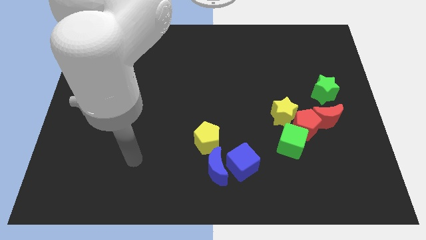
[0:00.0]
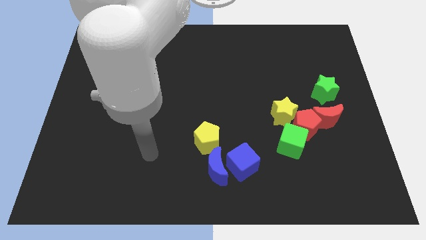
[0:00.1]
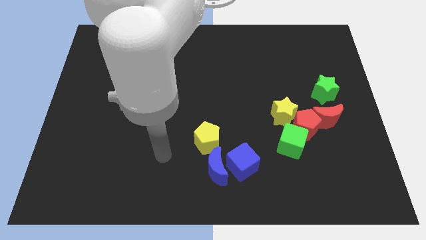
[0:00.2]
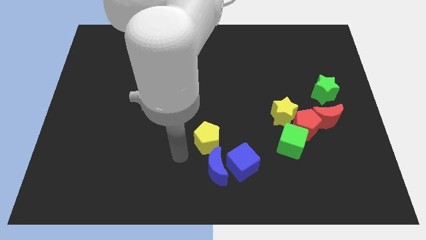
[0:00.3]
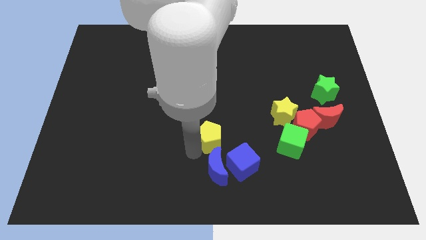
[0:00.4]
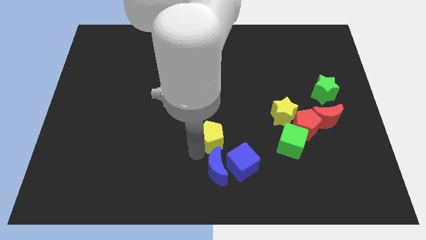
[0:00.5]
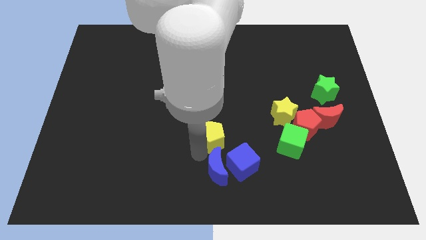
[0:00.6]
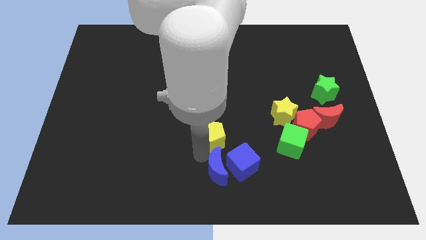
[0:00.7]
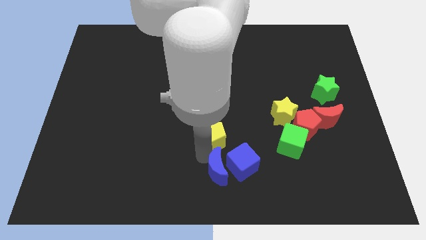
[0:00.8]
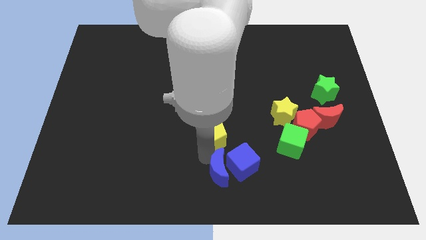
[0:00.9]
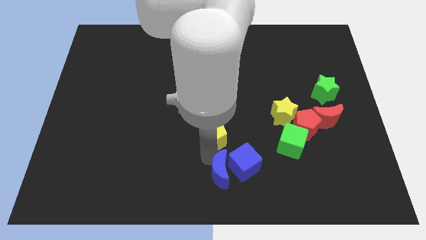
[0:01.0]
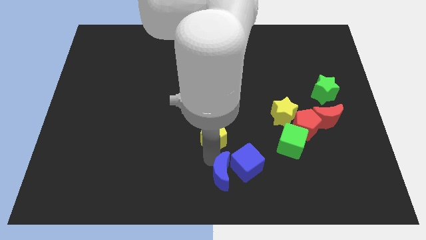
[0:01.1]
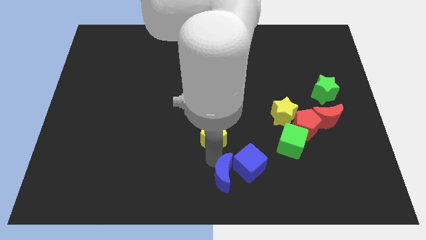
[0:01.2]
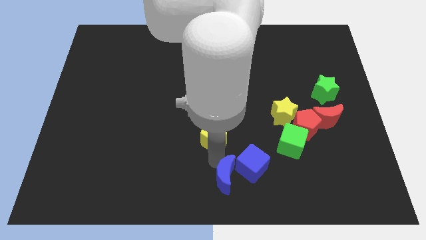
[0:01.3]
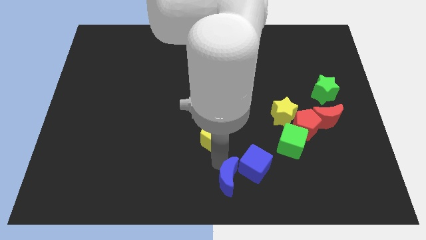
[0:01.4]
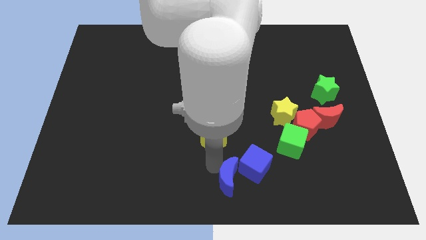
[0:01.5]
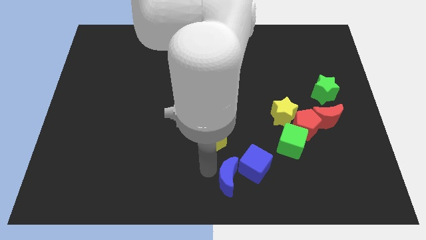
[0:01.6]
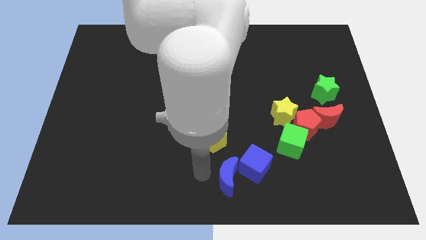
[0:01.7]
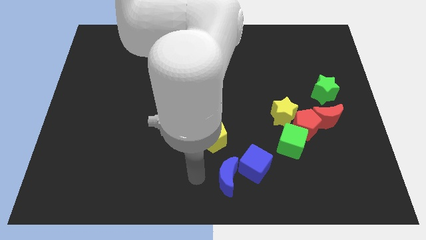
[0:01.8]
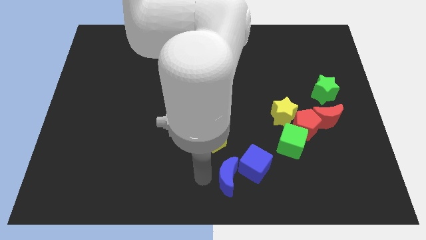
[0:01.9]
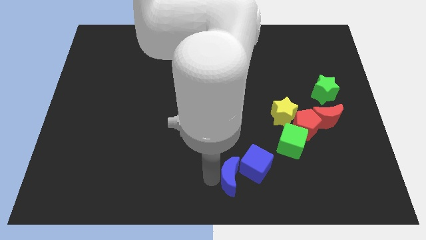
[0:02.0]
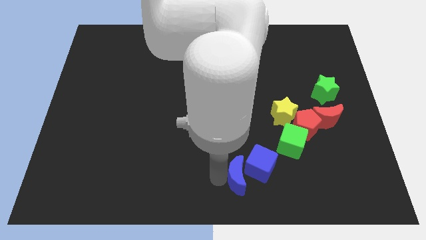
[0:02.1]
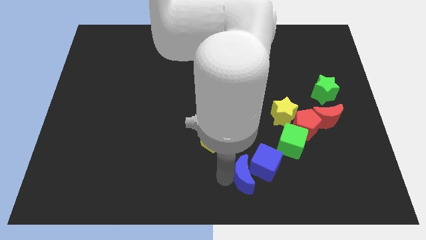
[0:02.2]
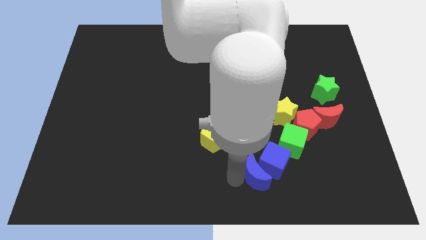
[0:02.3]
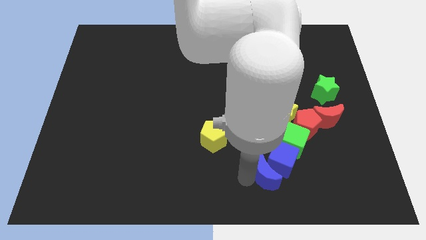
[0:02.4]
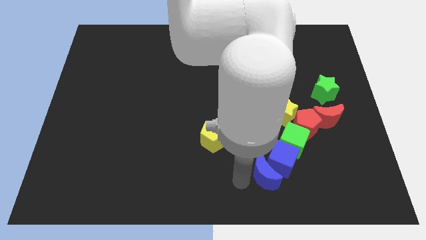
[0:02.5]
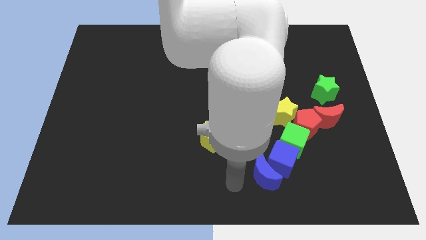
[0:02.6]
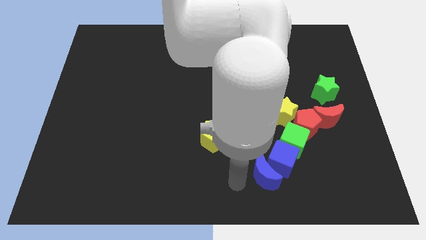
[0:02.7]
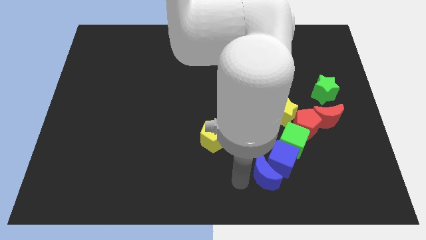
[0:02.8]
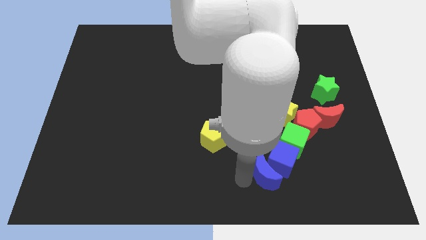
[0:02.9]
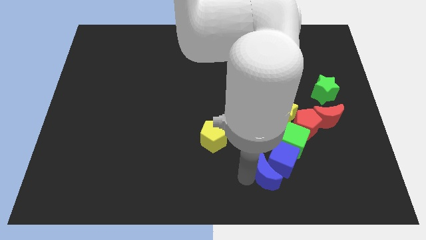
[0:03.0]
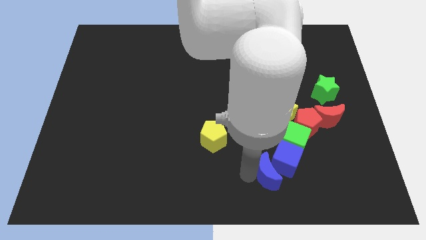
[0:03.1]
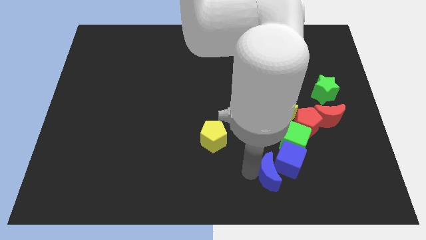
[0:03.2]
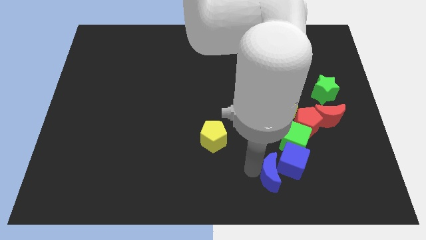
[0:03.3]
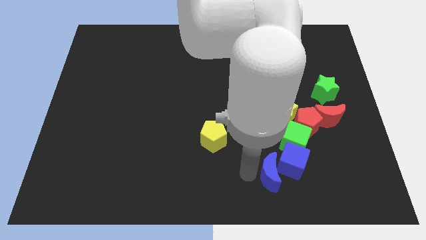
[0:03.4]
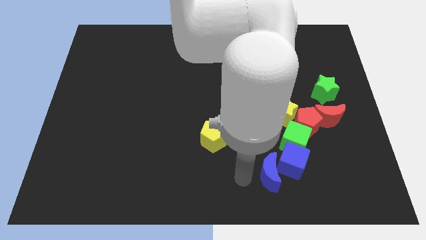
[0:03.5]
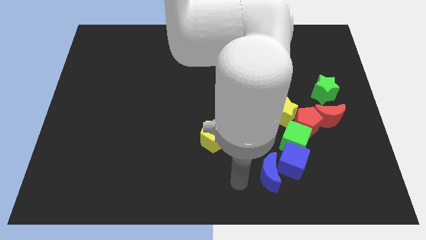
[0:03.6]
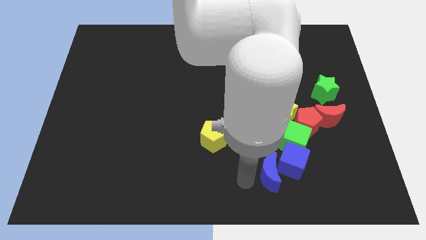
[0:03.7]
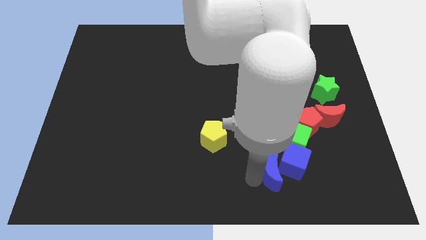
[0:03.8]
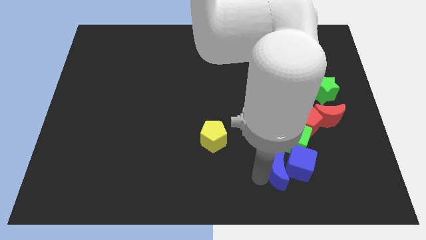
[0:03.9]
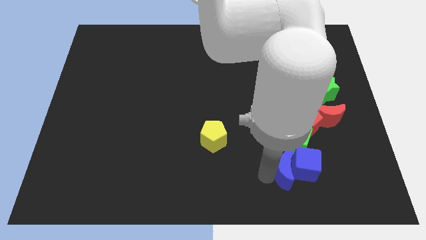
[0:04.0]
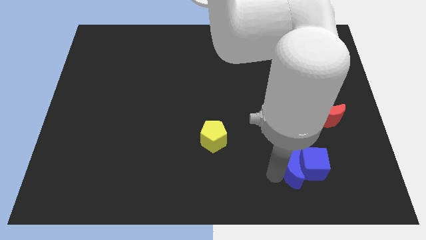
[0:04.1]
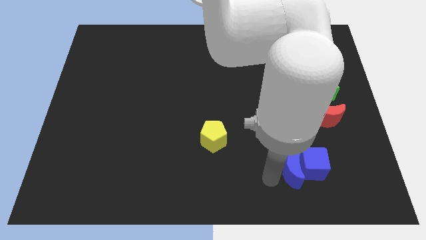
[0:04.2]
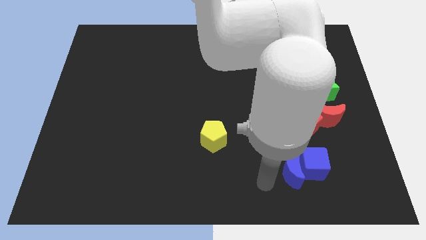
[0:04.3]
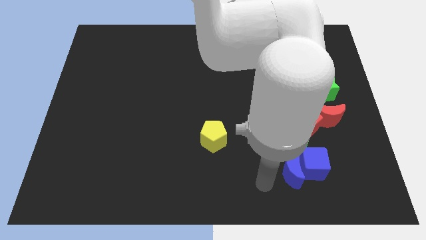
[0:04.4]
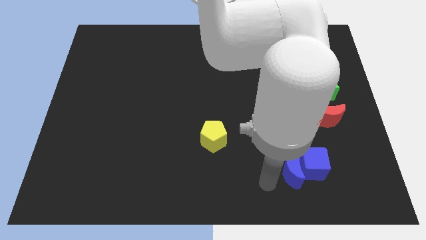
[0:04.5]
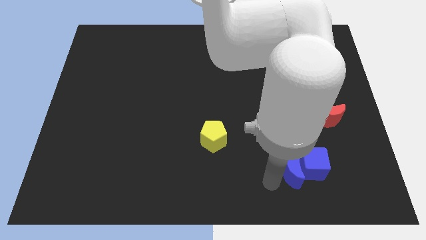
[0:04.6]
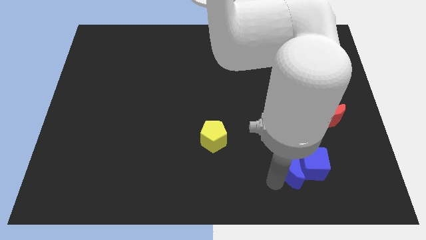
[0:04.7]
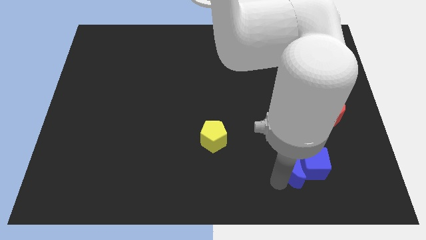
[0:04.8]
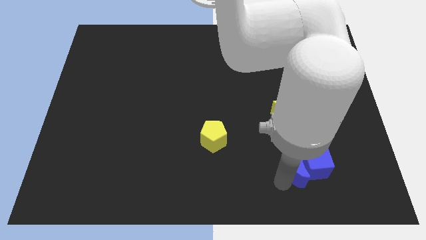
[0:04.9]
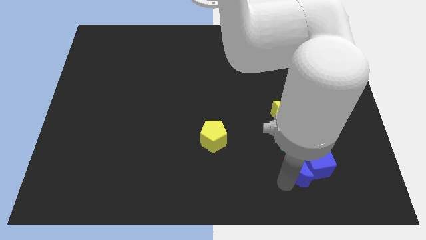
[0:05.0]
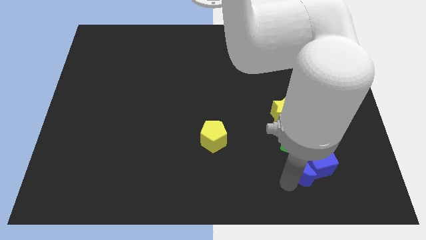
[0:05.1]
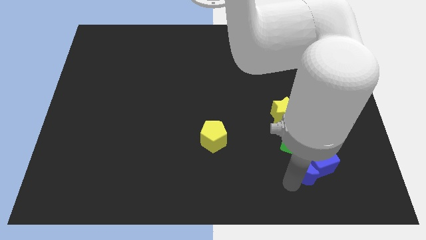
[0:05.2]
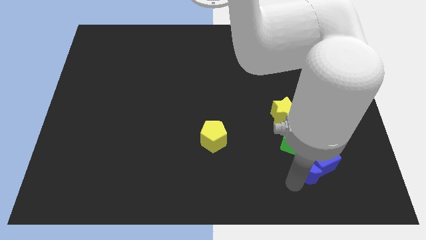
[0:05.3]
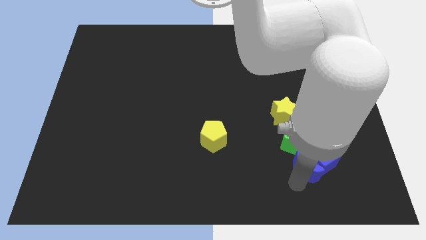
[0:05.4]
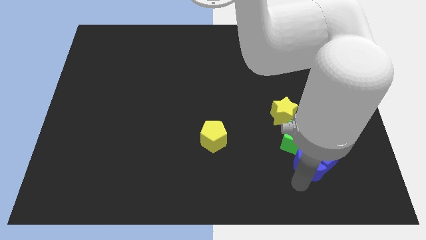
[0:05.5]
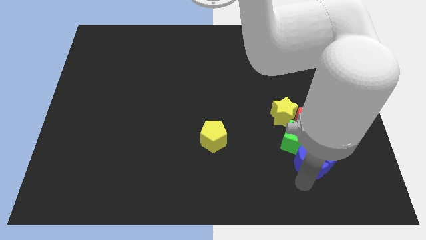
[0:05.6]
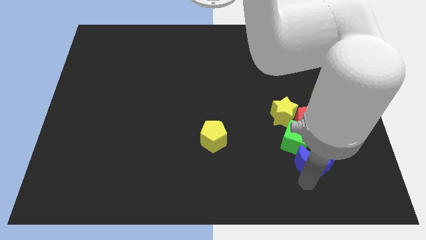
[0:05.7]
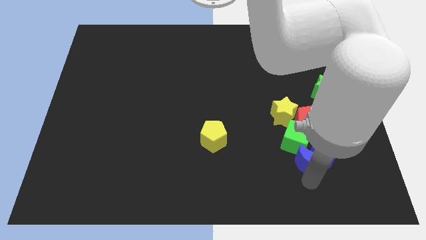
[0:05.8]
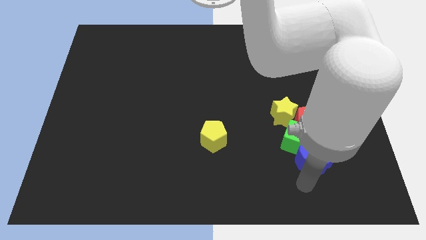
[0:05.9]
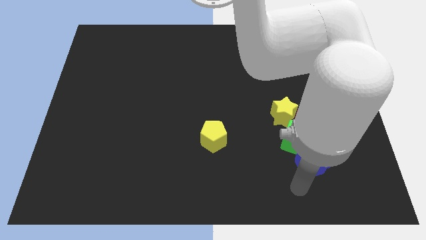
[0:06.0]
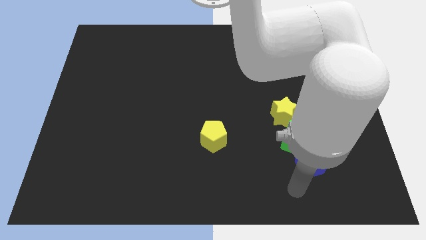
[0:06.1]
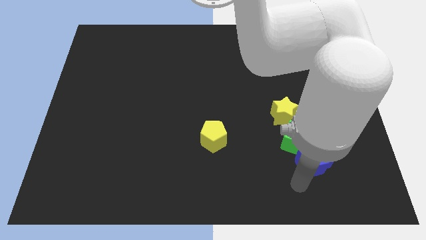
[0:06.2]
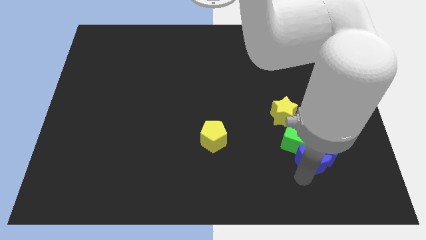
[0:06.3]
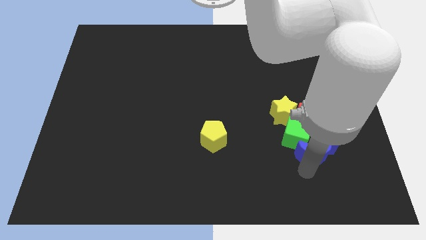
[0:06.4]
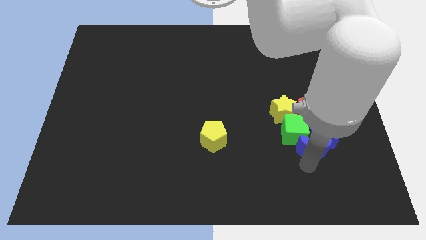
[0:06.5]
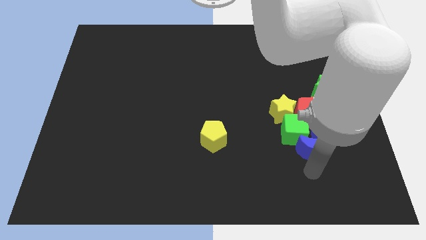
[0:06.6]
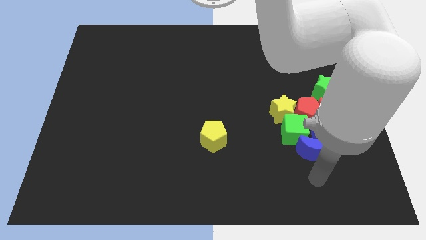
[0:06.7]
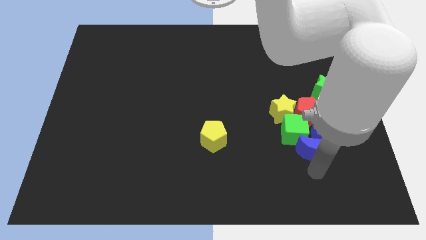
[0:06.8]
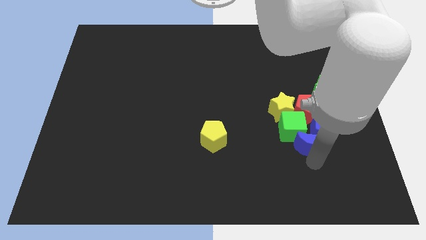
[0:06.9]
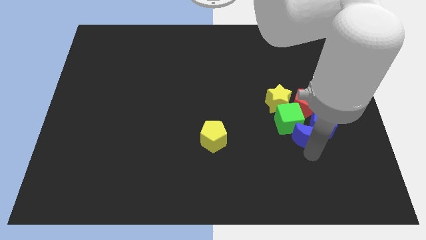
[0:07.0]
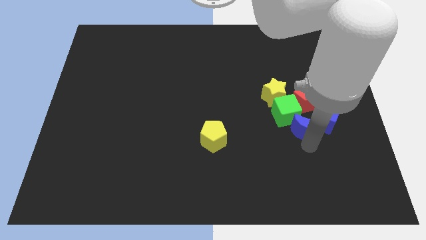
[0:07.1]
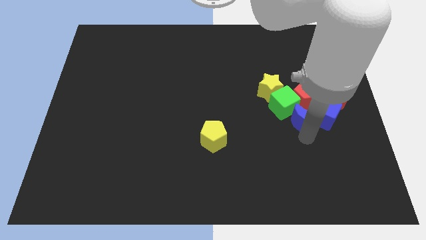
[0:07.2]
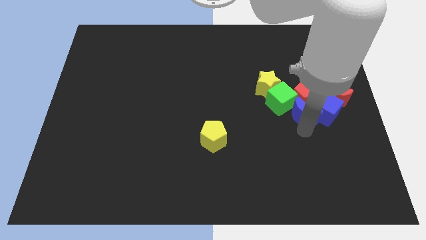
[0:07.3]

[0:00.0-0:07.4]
slide the blue moon close to the red pentagon
